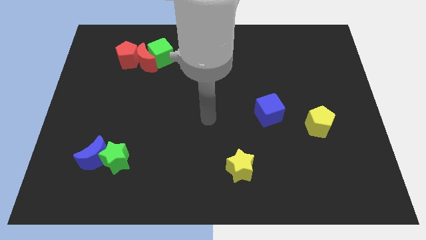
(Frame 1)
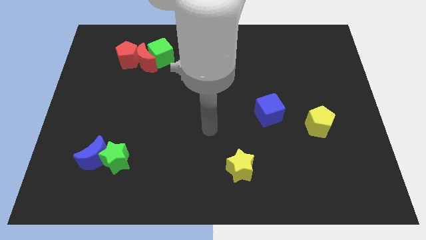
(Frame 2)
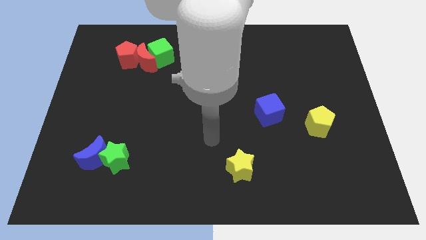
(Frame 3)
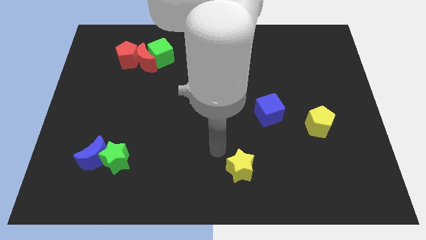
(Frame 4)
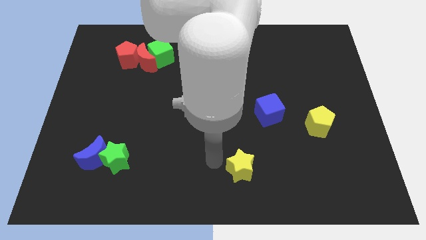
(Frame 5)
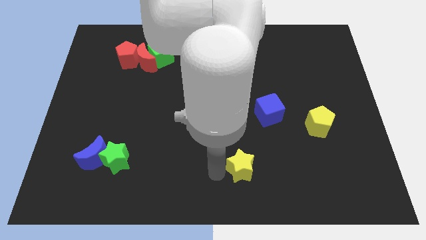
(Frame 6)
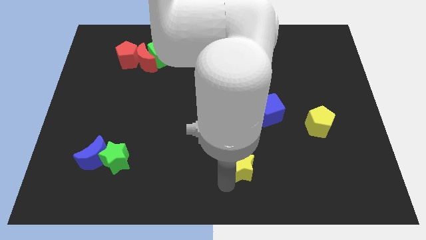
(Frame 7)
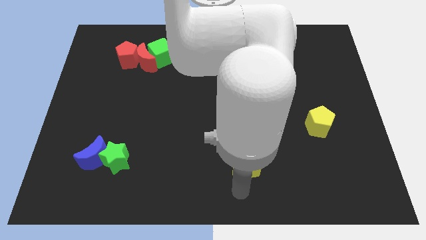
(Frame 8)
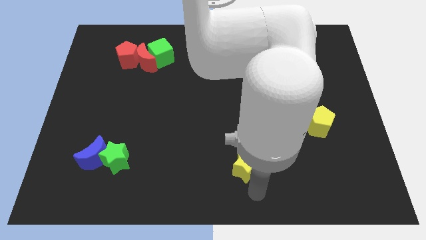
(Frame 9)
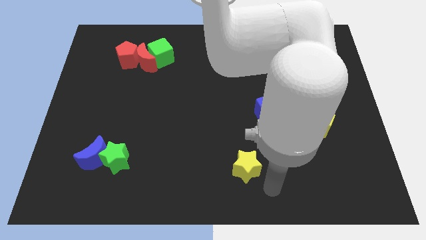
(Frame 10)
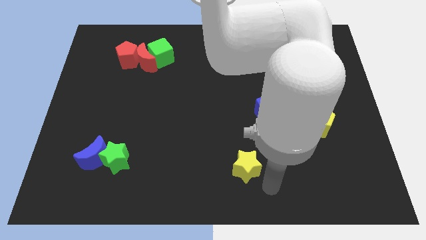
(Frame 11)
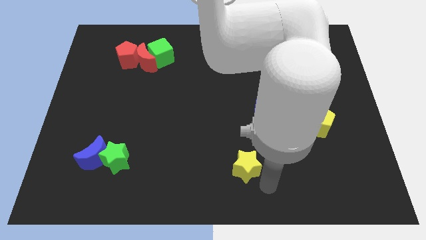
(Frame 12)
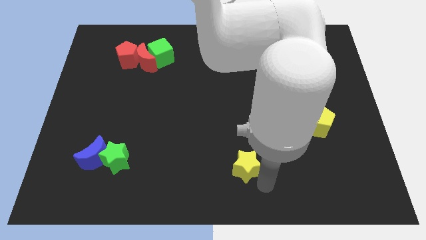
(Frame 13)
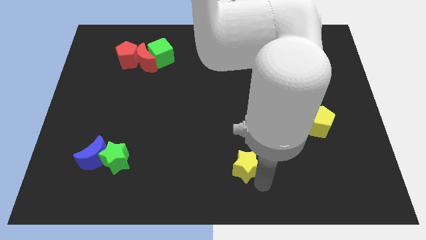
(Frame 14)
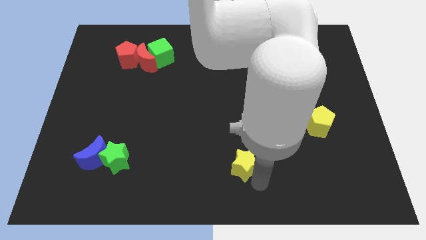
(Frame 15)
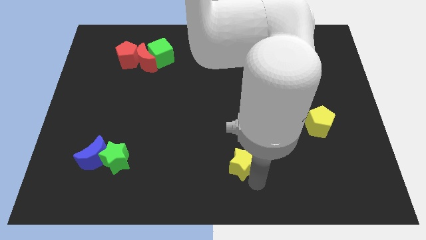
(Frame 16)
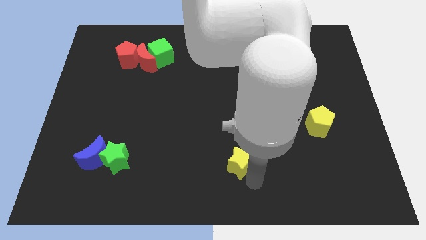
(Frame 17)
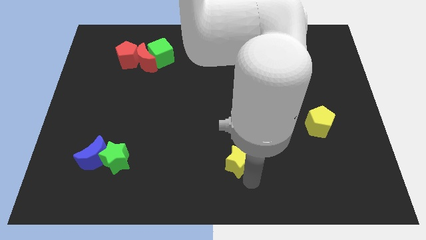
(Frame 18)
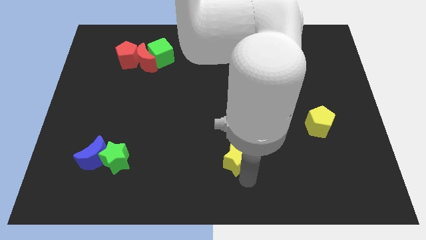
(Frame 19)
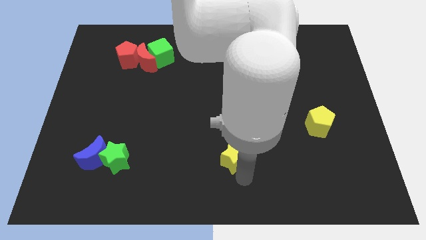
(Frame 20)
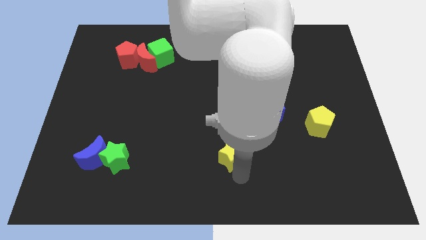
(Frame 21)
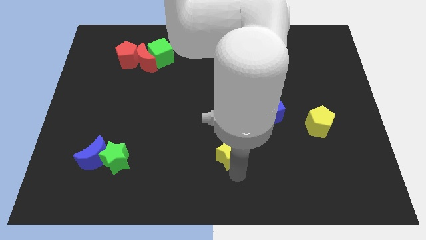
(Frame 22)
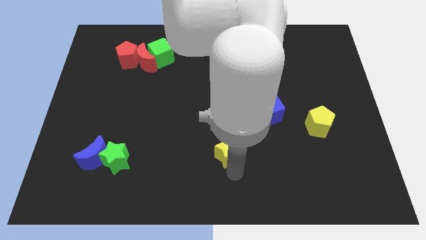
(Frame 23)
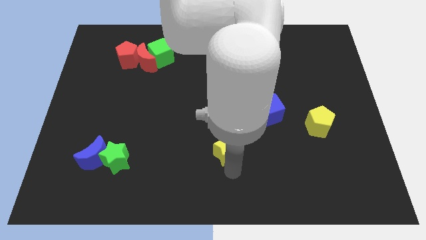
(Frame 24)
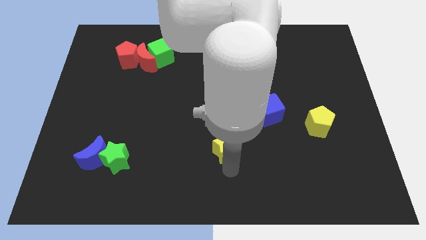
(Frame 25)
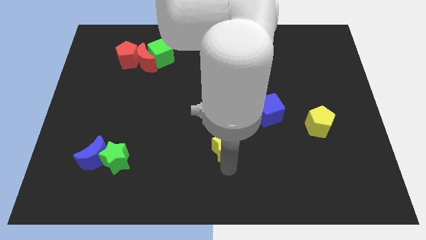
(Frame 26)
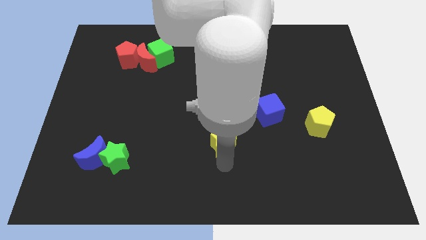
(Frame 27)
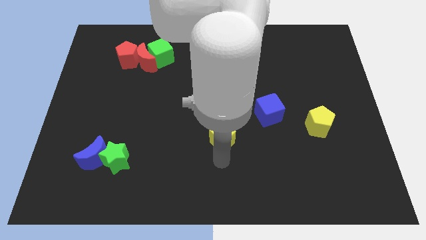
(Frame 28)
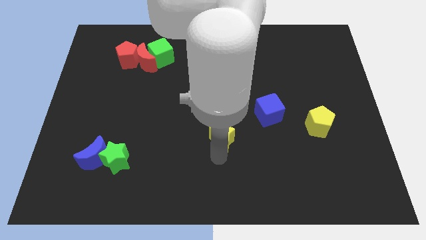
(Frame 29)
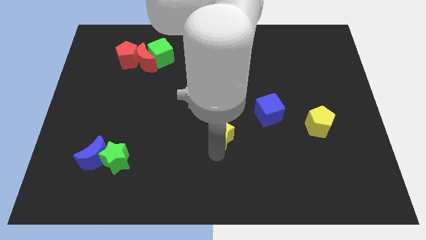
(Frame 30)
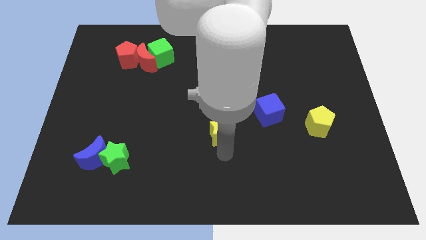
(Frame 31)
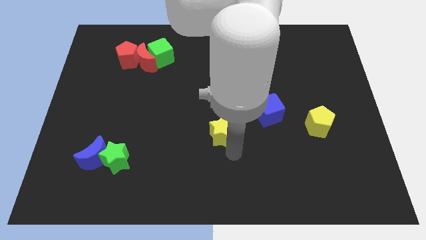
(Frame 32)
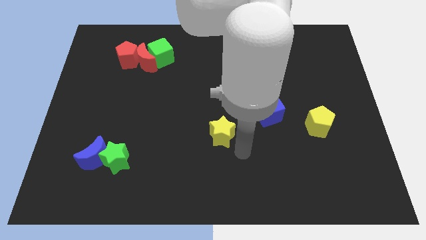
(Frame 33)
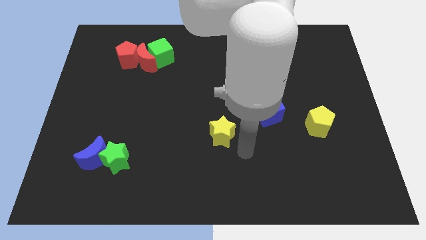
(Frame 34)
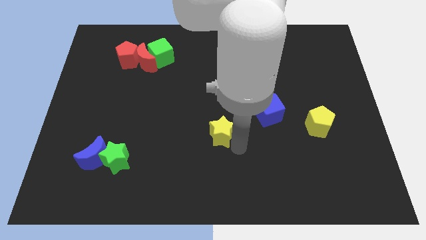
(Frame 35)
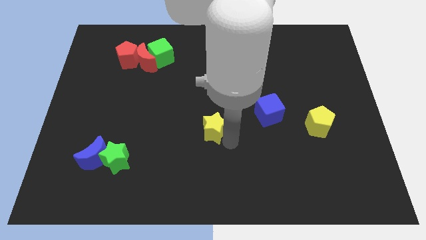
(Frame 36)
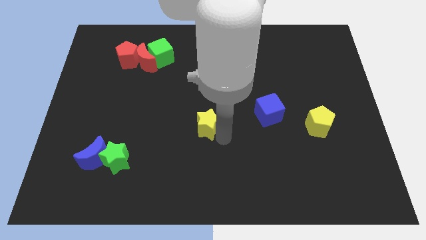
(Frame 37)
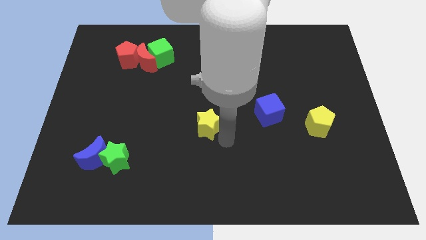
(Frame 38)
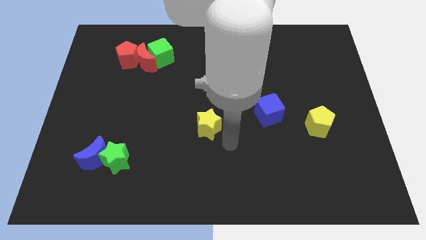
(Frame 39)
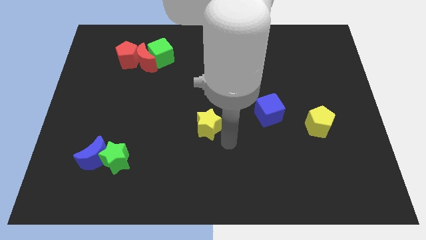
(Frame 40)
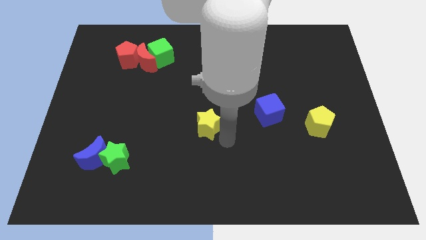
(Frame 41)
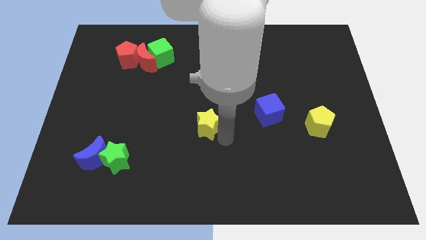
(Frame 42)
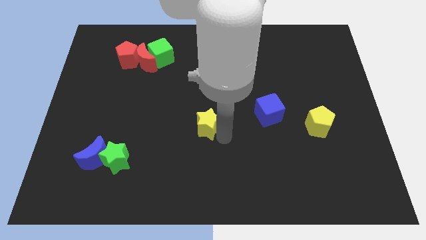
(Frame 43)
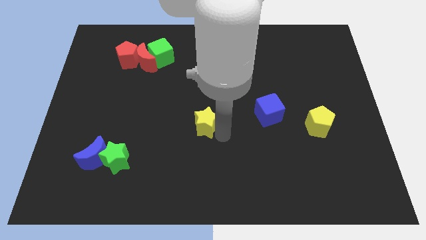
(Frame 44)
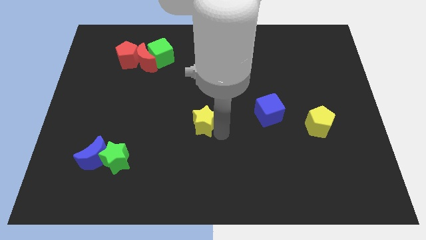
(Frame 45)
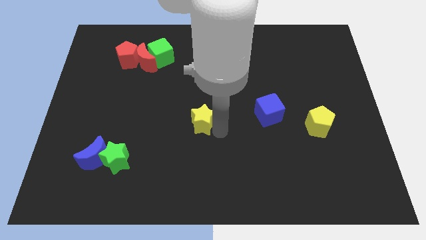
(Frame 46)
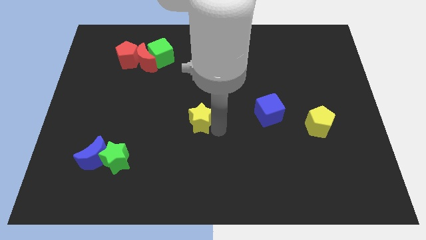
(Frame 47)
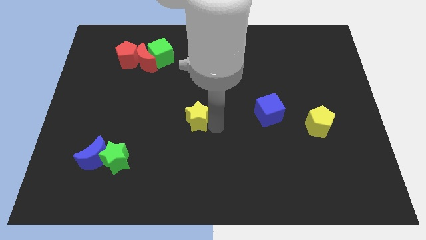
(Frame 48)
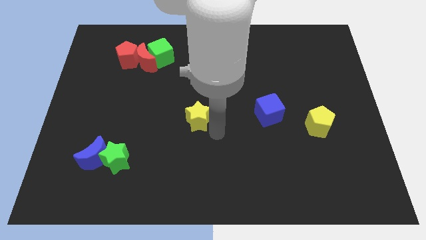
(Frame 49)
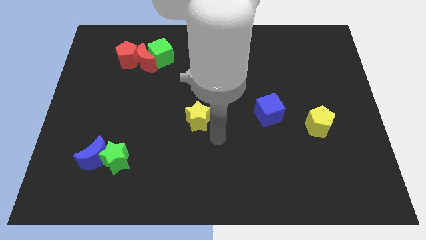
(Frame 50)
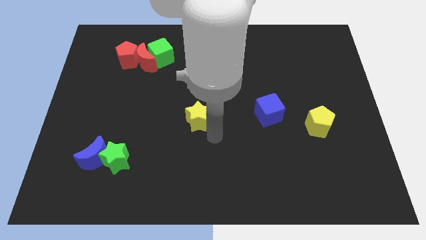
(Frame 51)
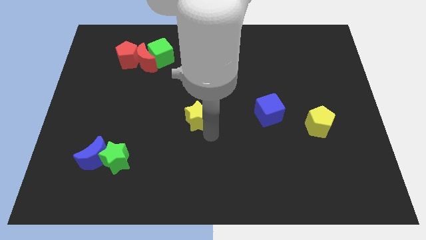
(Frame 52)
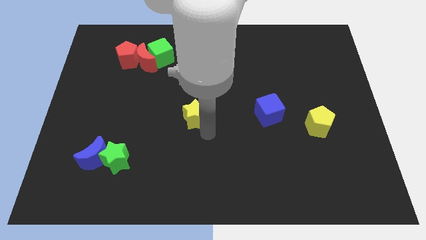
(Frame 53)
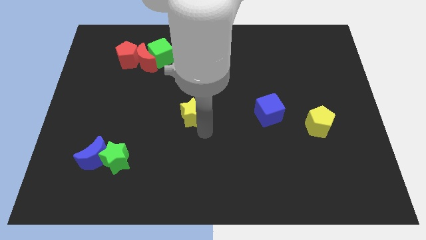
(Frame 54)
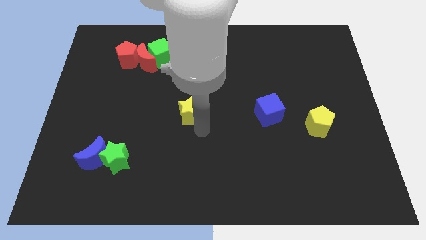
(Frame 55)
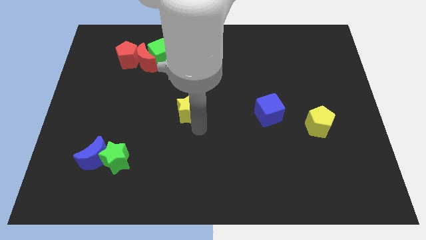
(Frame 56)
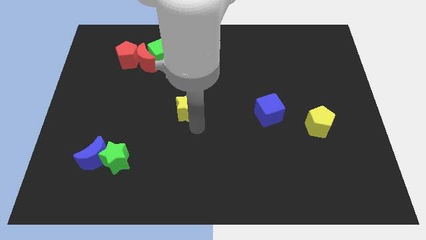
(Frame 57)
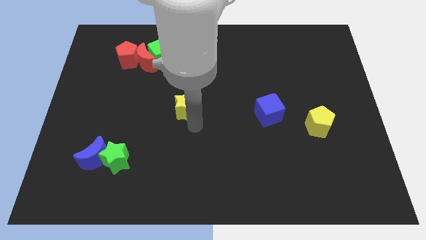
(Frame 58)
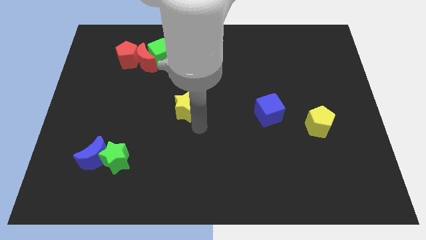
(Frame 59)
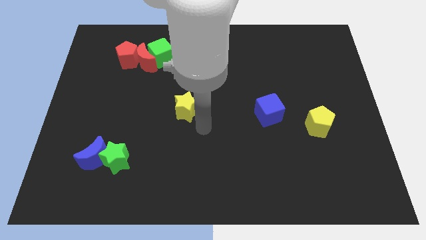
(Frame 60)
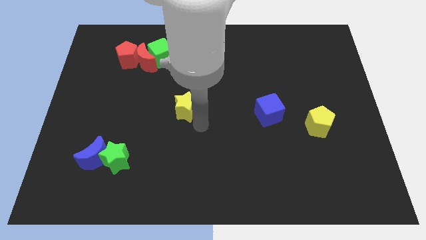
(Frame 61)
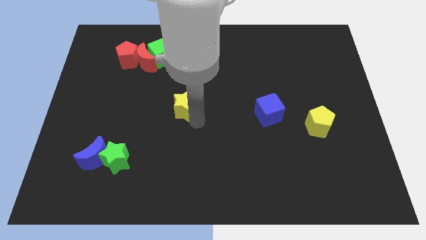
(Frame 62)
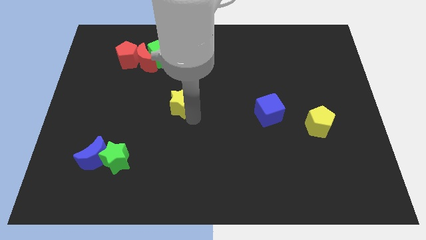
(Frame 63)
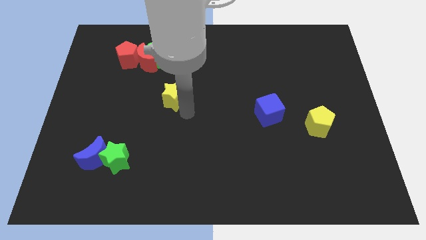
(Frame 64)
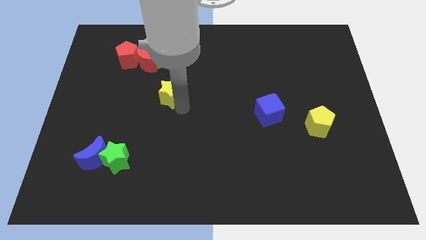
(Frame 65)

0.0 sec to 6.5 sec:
put the yellow star below the green cube
